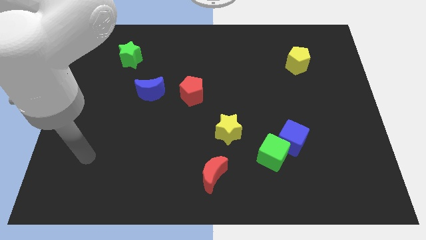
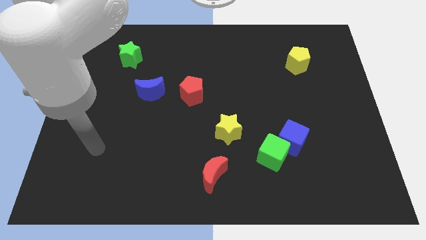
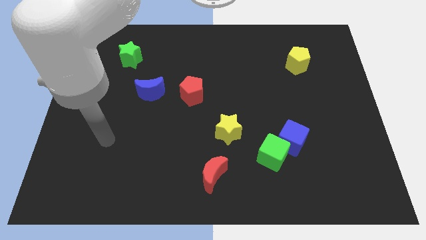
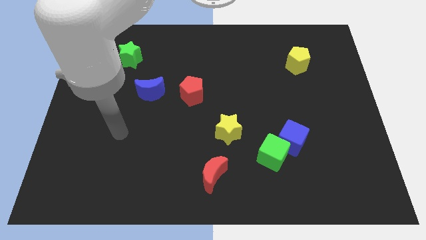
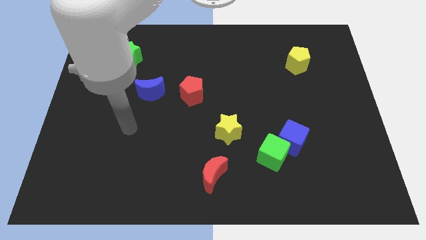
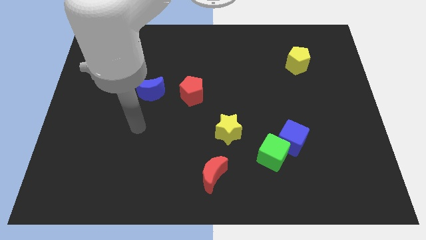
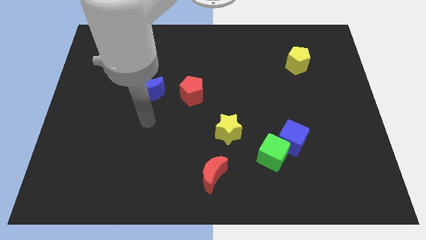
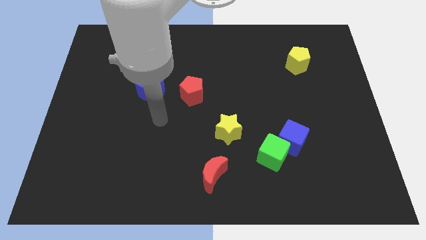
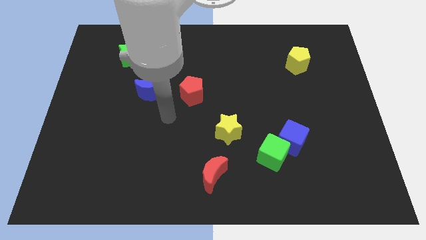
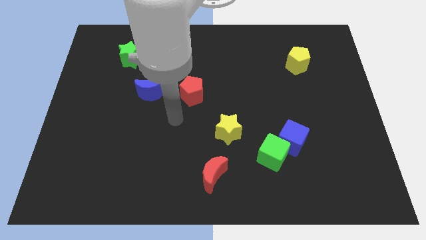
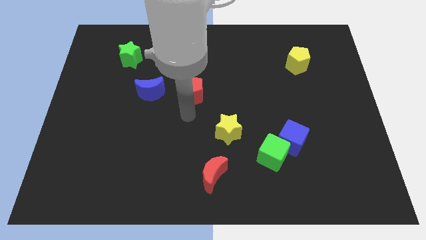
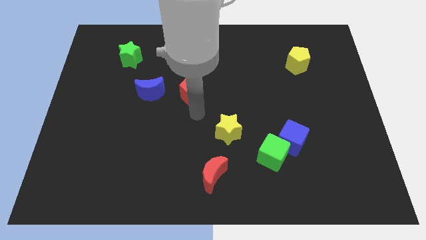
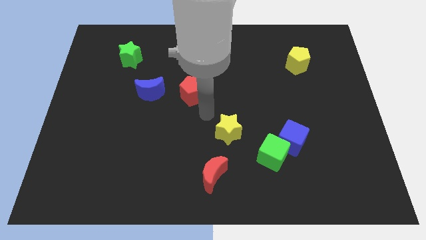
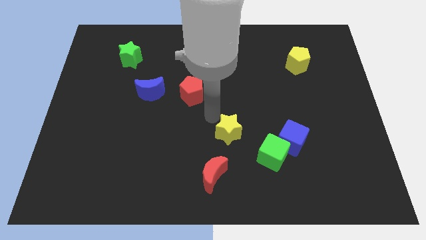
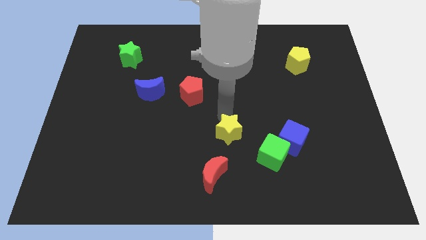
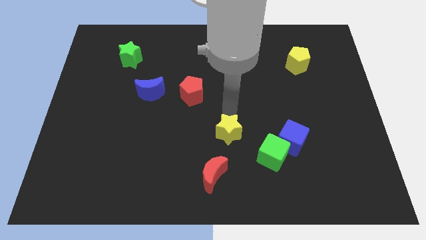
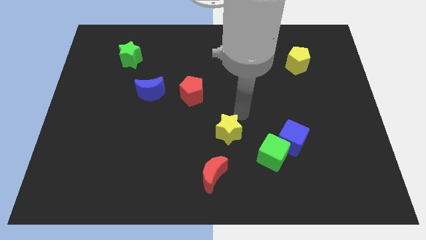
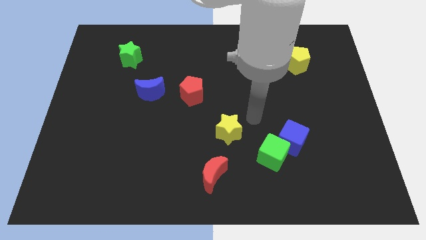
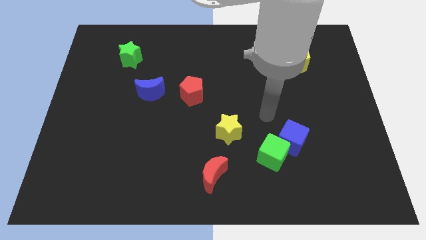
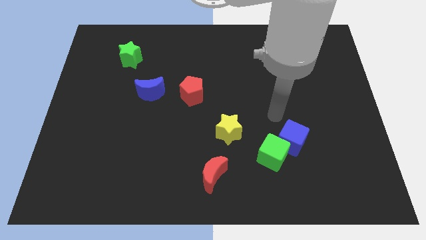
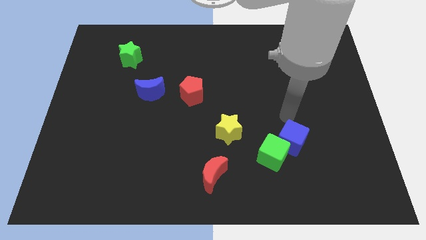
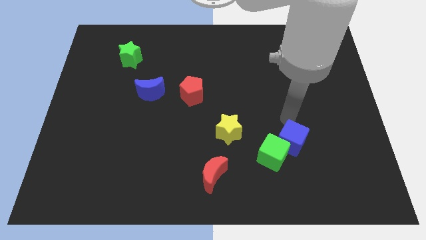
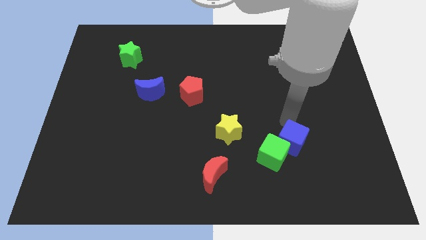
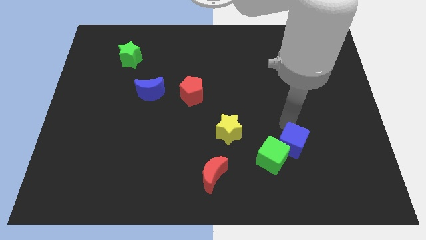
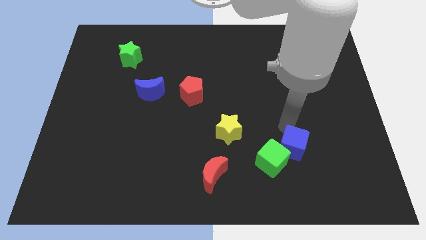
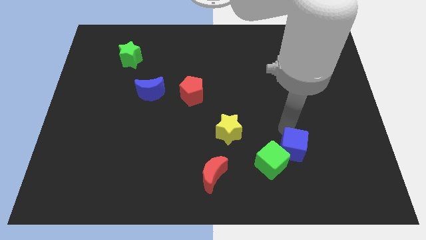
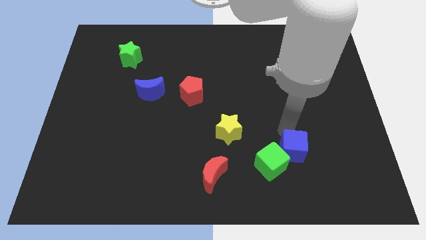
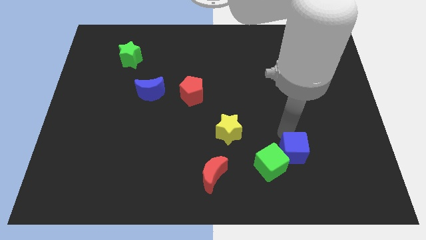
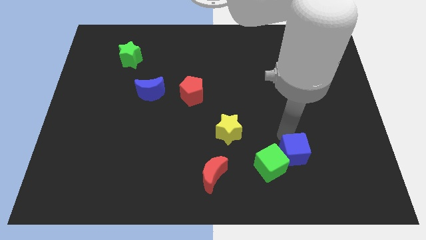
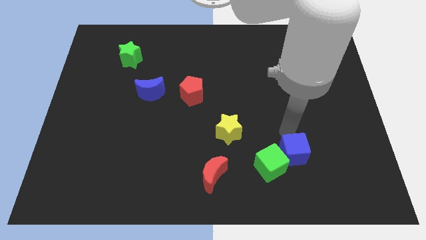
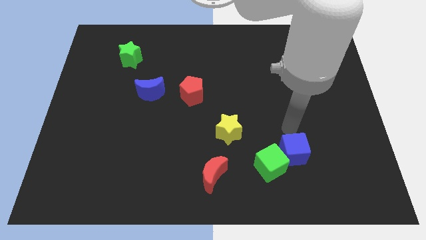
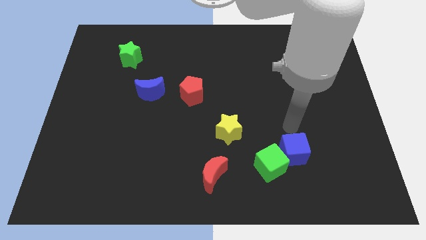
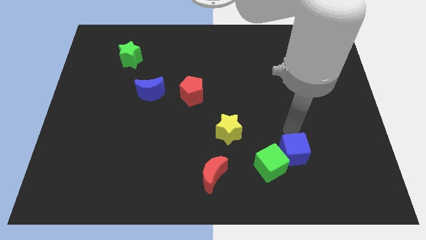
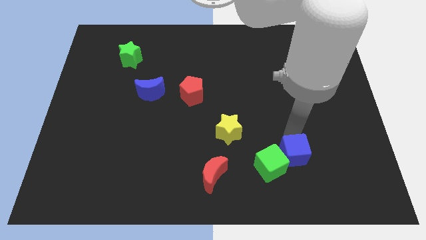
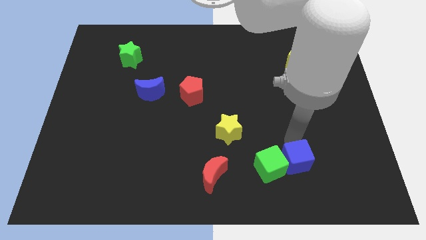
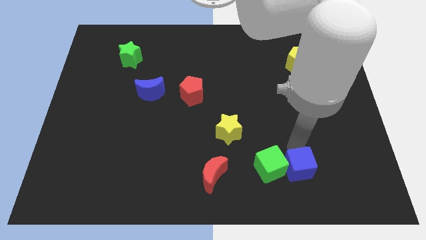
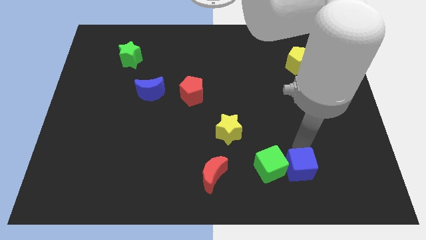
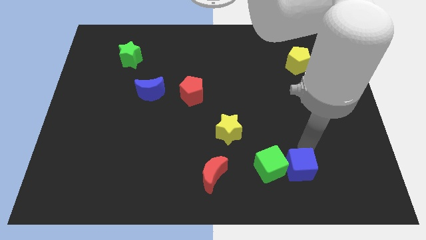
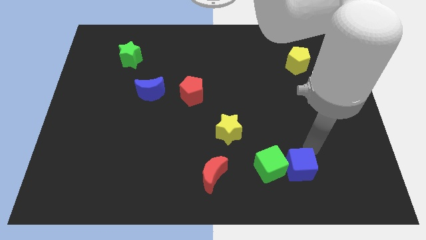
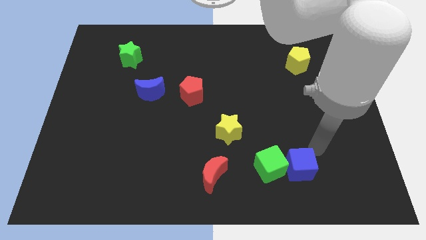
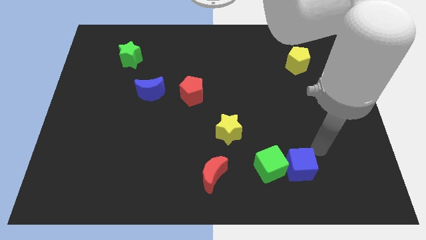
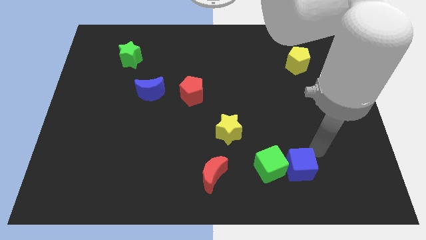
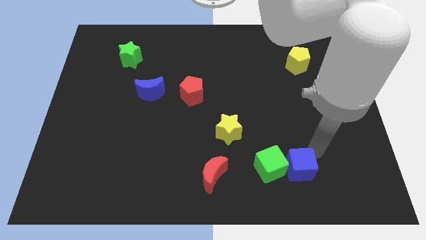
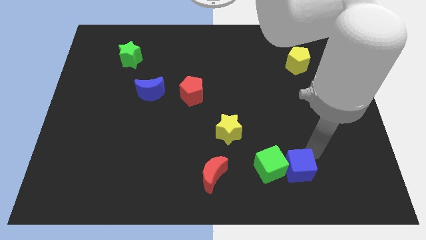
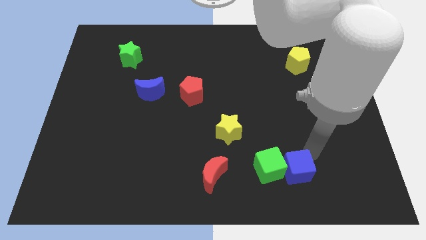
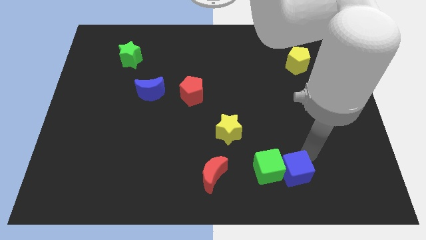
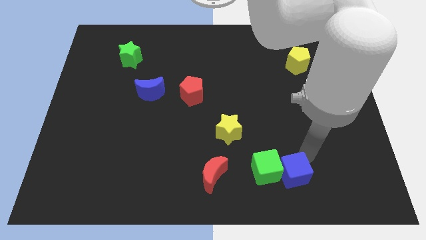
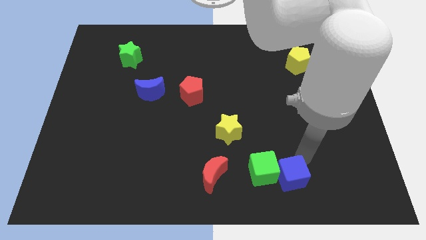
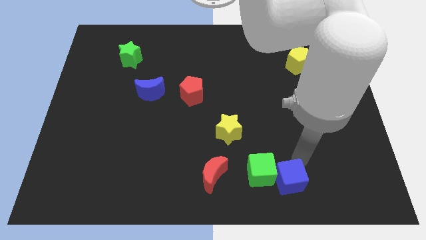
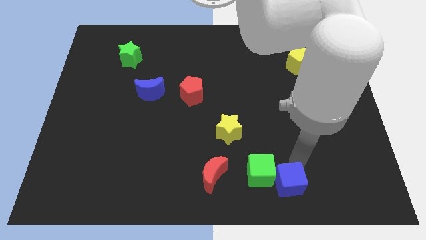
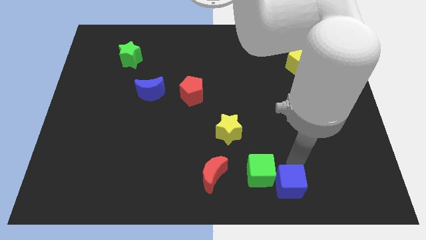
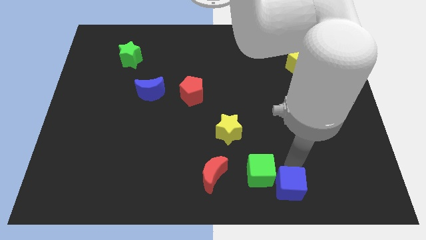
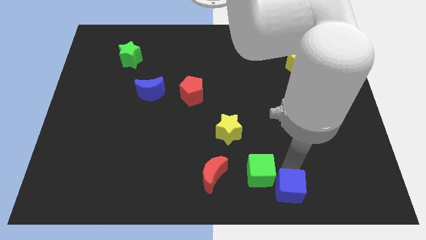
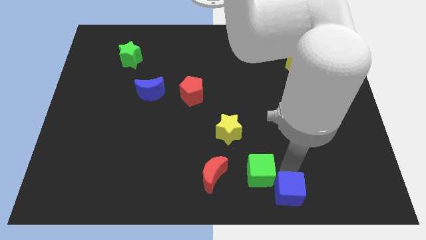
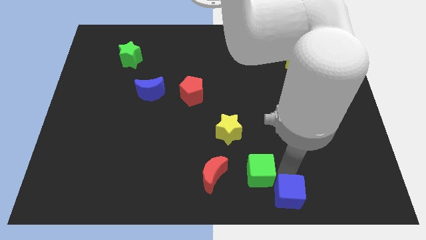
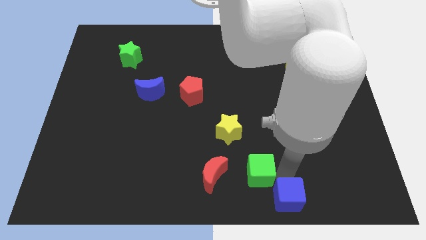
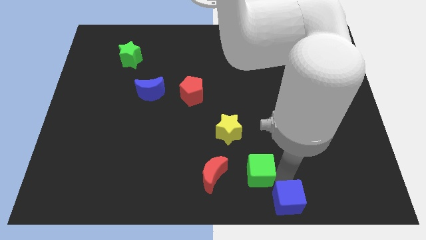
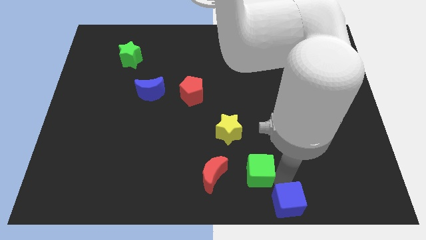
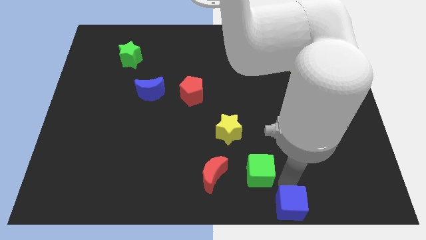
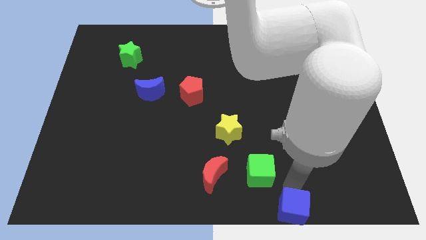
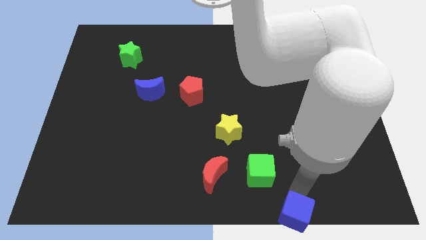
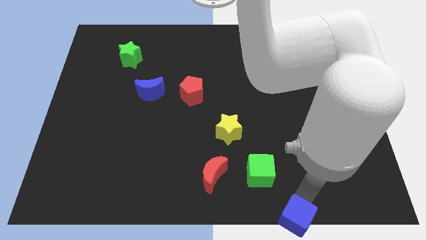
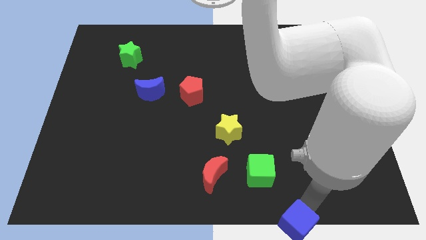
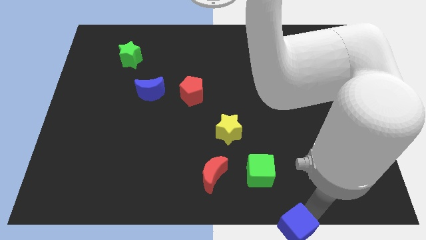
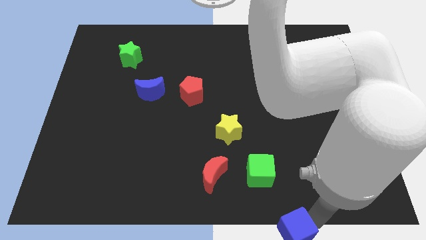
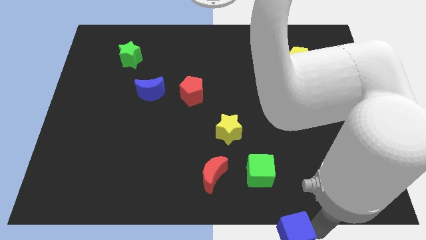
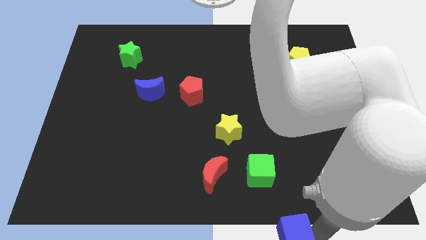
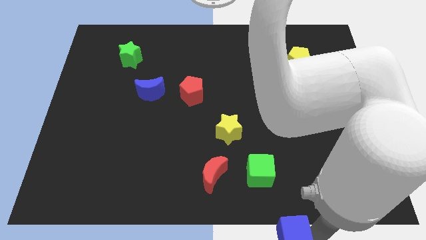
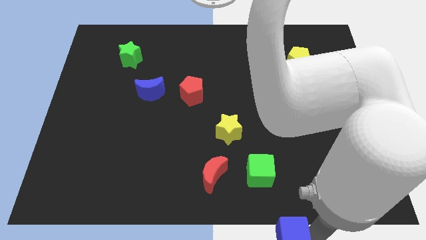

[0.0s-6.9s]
push the blue cube to the bottom
